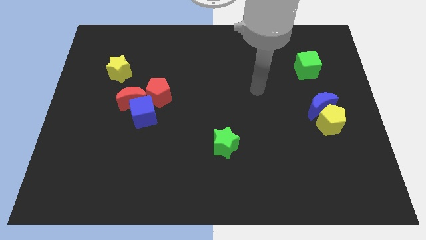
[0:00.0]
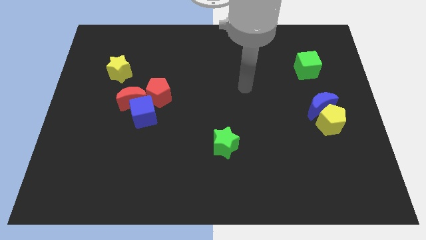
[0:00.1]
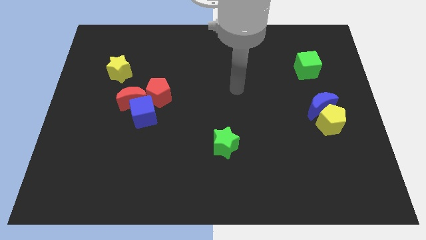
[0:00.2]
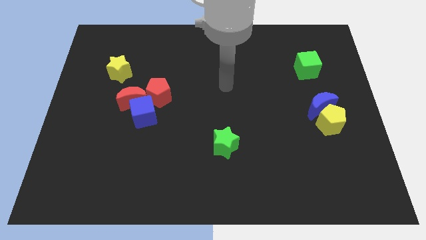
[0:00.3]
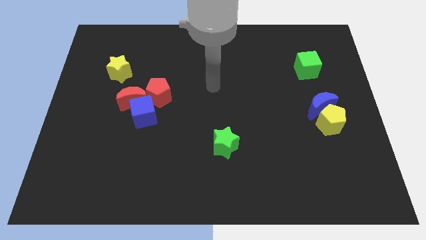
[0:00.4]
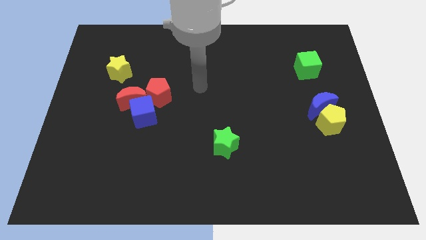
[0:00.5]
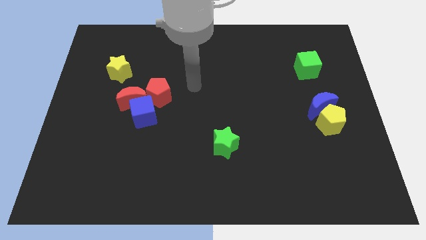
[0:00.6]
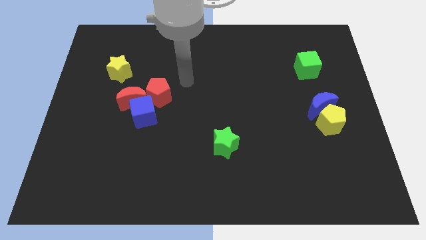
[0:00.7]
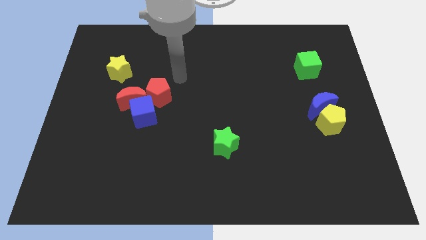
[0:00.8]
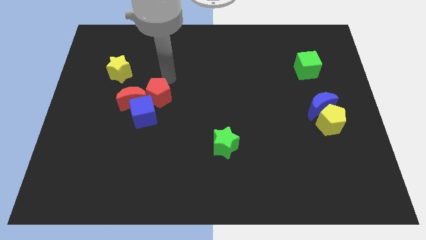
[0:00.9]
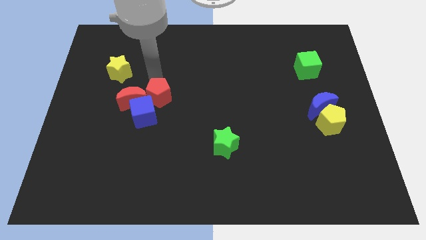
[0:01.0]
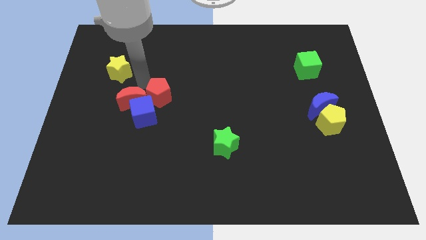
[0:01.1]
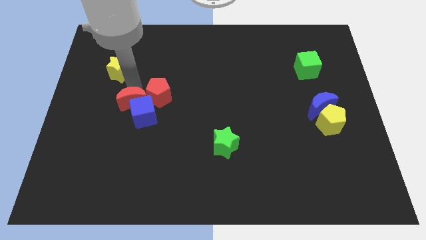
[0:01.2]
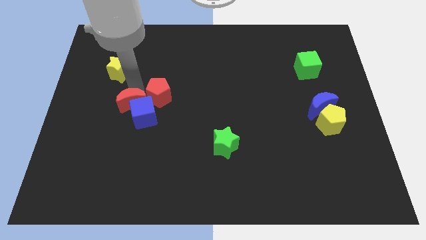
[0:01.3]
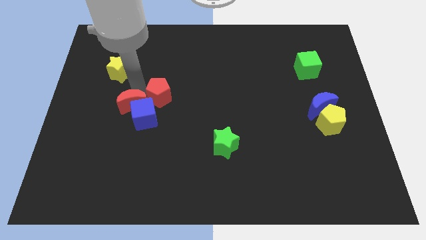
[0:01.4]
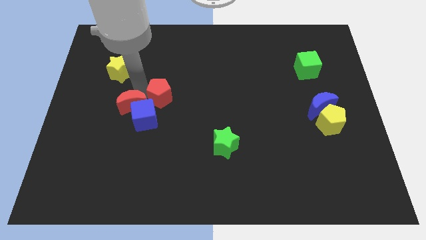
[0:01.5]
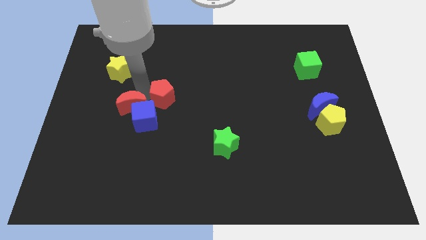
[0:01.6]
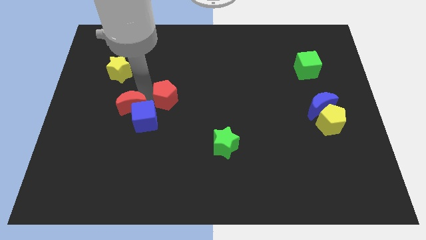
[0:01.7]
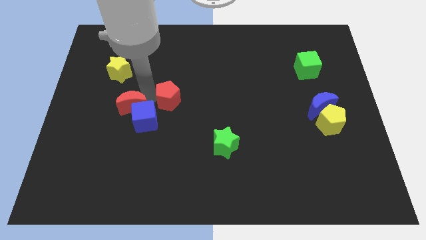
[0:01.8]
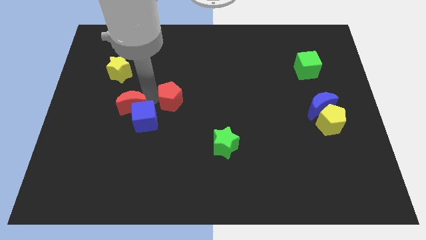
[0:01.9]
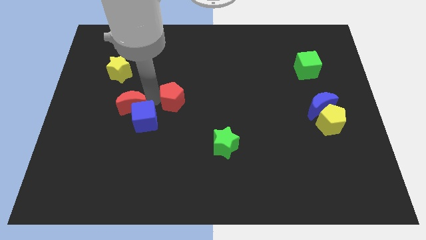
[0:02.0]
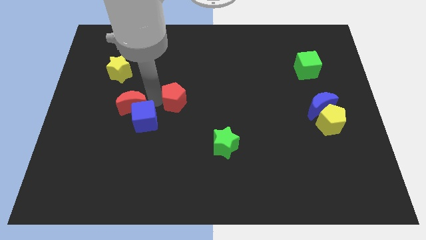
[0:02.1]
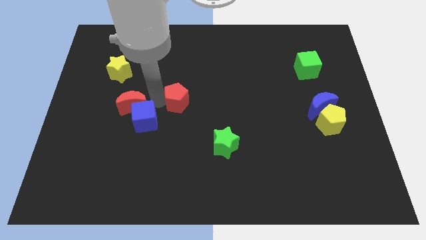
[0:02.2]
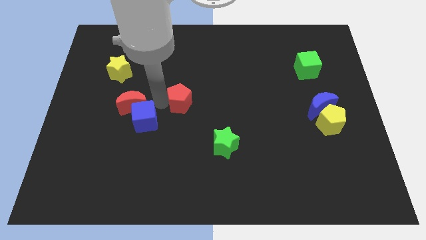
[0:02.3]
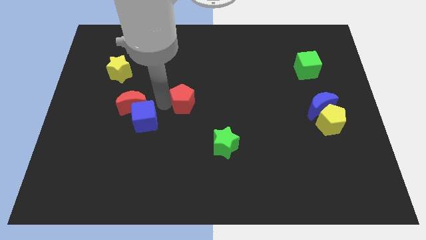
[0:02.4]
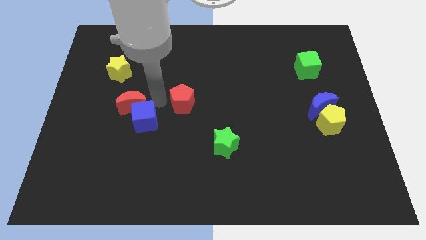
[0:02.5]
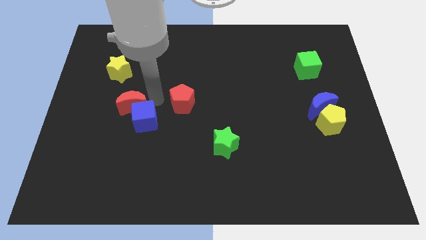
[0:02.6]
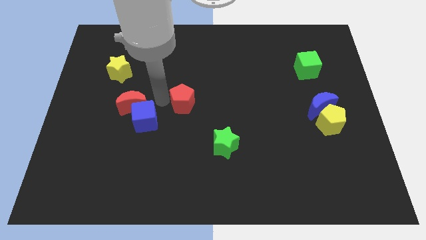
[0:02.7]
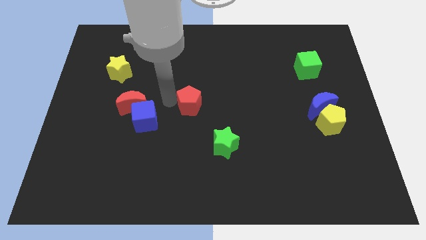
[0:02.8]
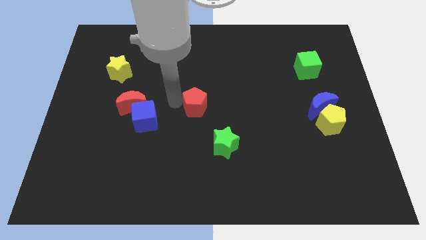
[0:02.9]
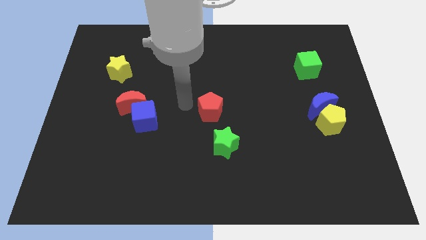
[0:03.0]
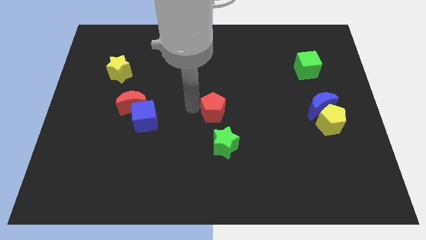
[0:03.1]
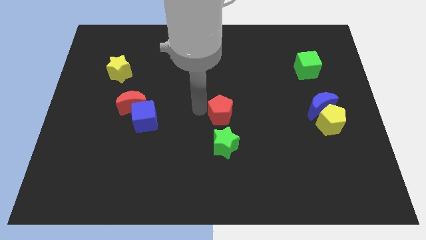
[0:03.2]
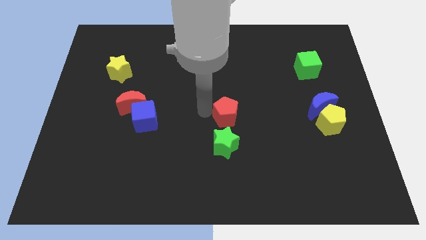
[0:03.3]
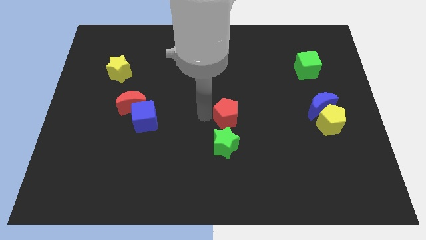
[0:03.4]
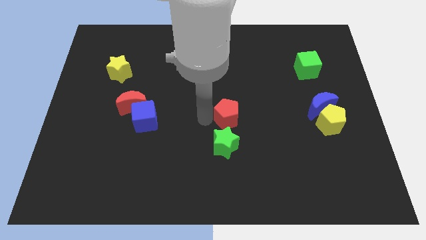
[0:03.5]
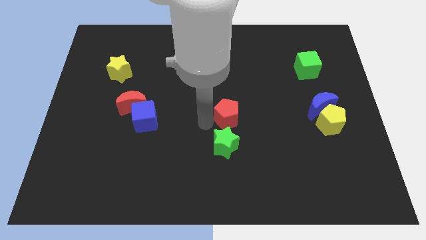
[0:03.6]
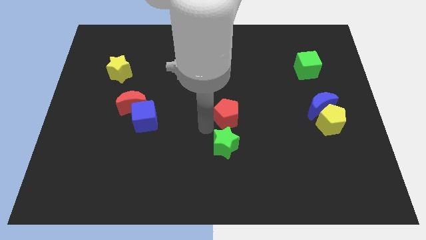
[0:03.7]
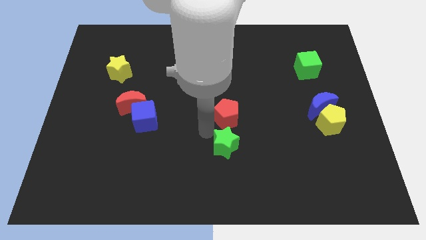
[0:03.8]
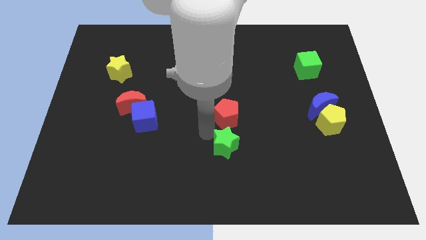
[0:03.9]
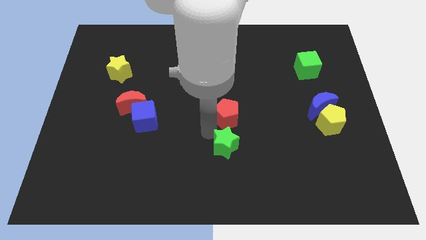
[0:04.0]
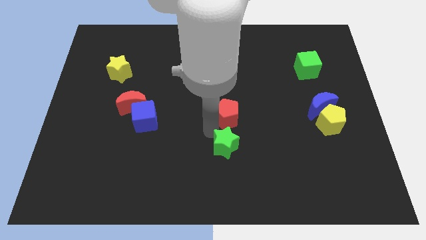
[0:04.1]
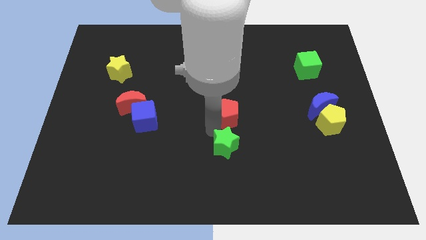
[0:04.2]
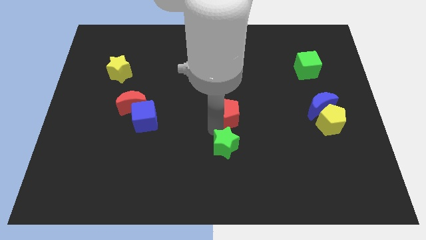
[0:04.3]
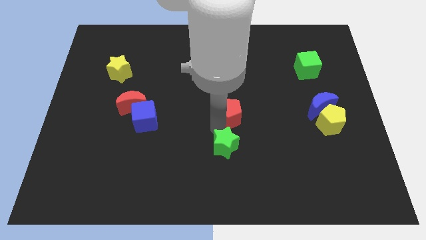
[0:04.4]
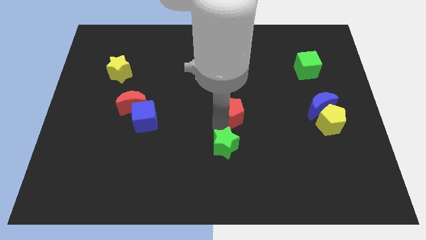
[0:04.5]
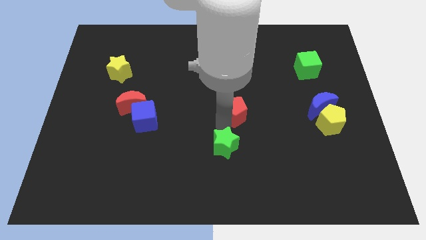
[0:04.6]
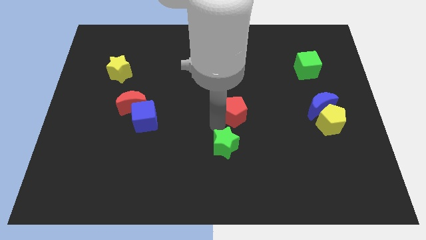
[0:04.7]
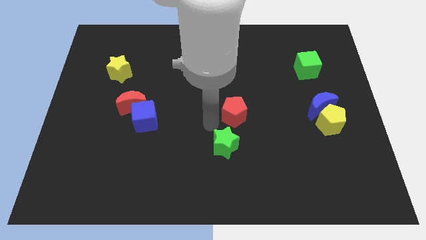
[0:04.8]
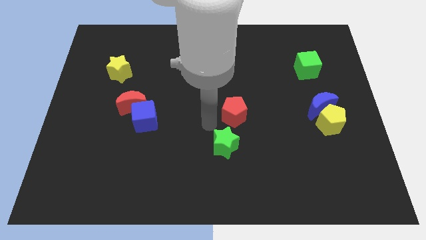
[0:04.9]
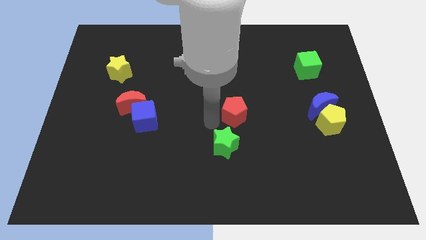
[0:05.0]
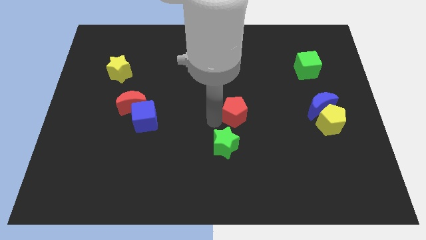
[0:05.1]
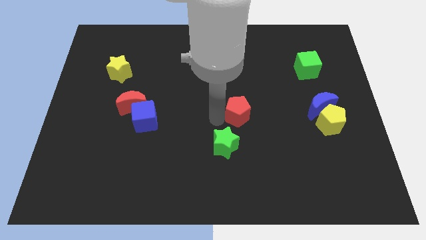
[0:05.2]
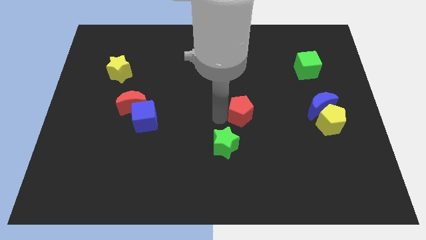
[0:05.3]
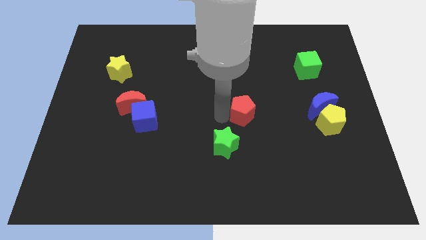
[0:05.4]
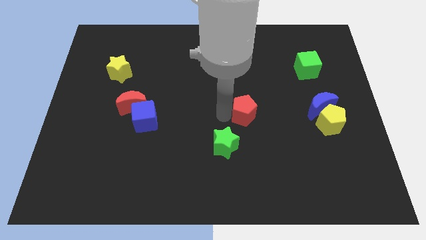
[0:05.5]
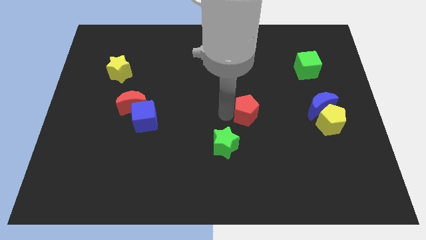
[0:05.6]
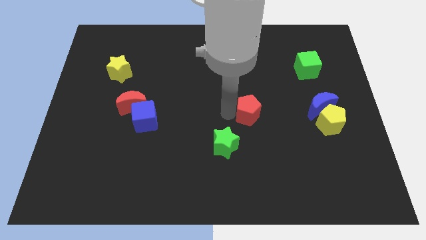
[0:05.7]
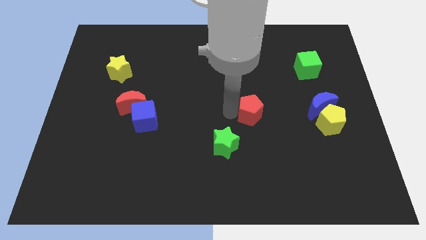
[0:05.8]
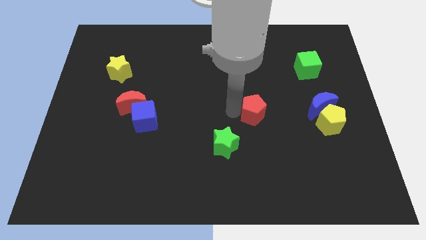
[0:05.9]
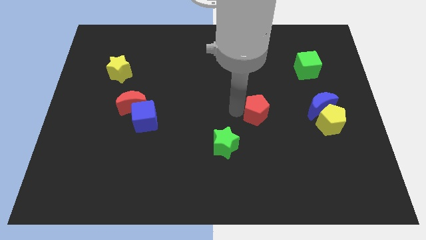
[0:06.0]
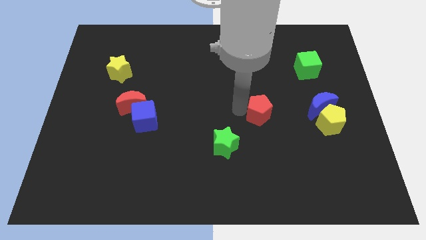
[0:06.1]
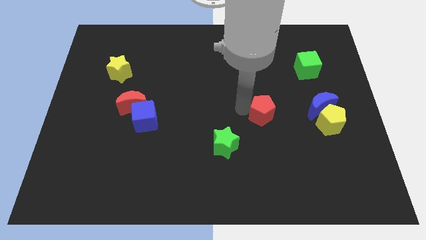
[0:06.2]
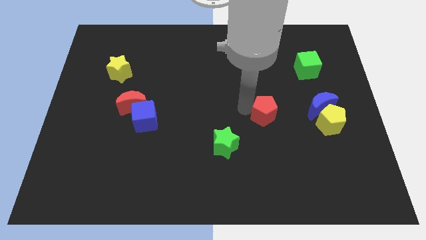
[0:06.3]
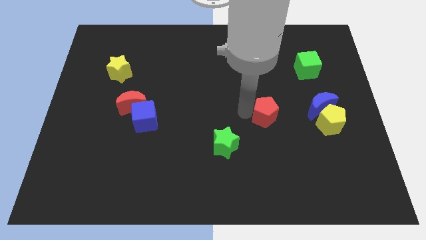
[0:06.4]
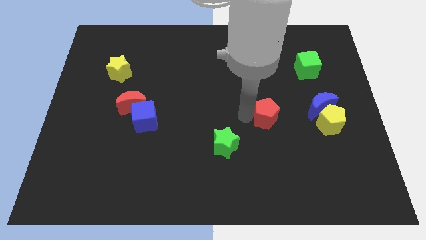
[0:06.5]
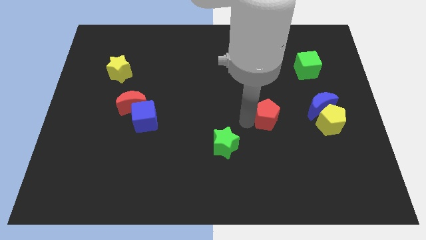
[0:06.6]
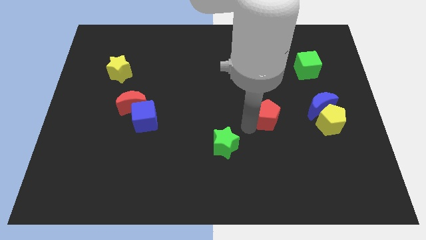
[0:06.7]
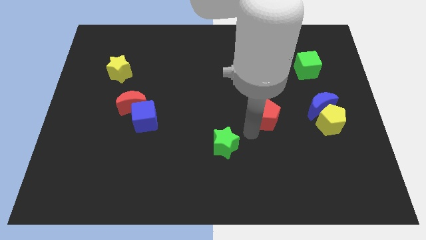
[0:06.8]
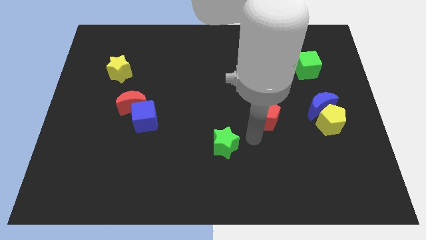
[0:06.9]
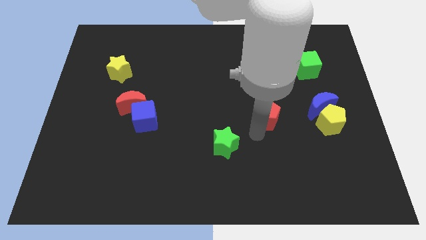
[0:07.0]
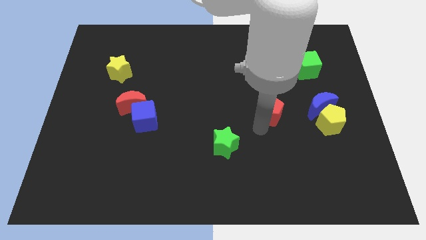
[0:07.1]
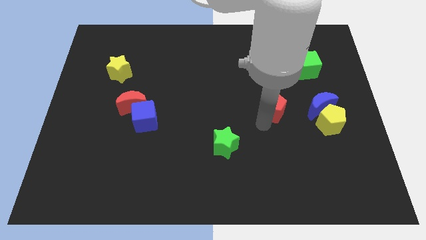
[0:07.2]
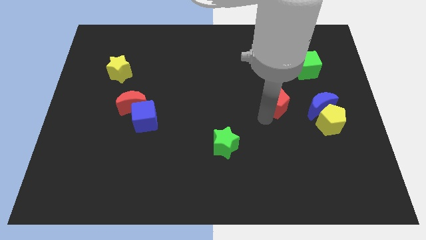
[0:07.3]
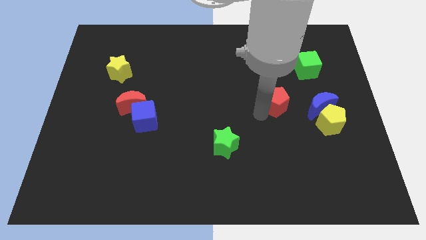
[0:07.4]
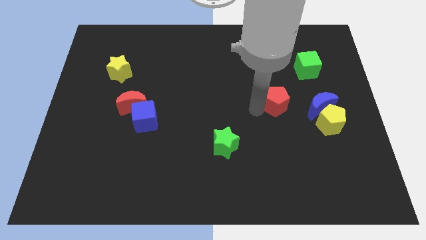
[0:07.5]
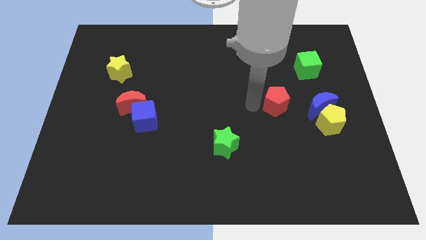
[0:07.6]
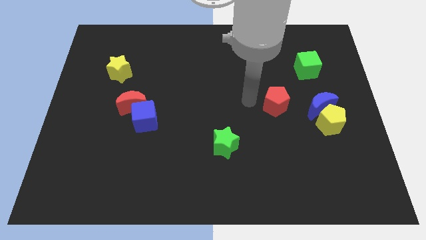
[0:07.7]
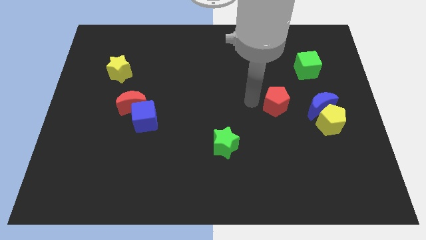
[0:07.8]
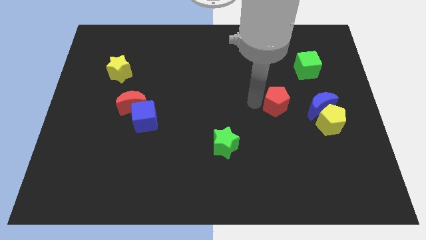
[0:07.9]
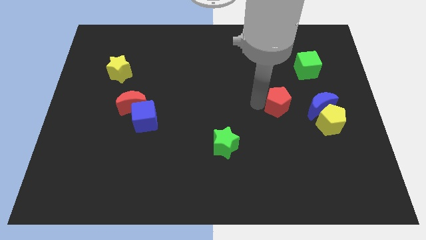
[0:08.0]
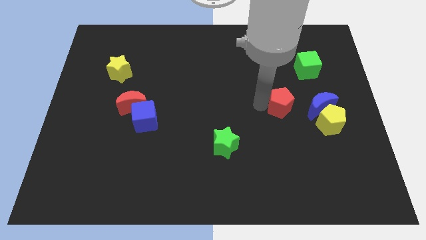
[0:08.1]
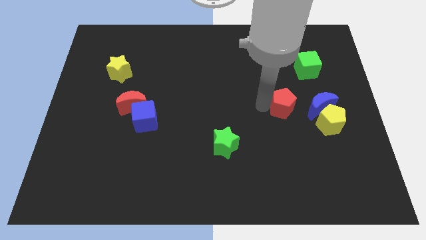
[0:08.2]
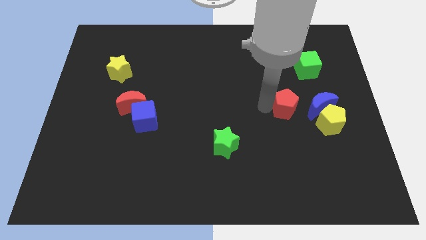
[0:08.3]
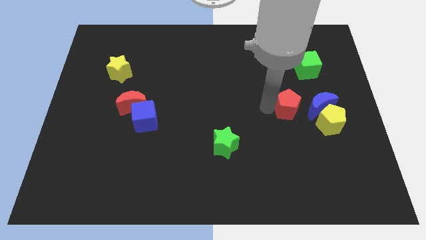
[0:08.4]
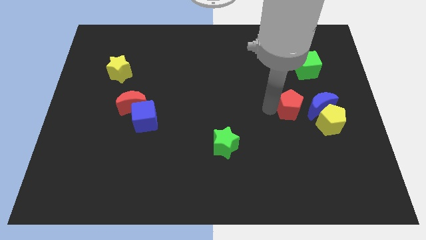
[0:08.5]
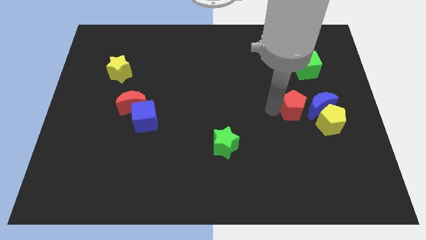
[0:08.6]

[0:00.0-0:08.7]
slide the red pentagon next to the blue moon
